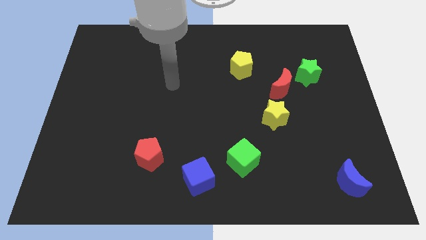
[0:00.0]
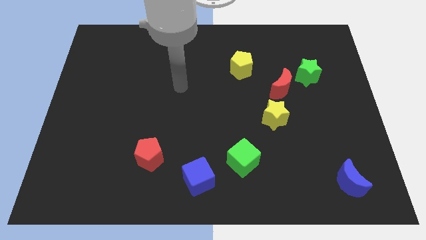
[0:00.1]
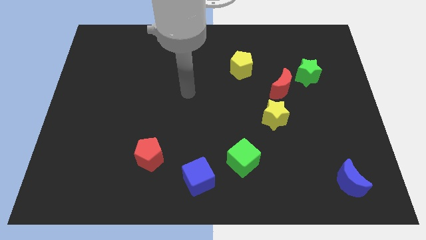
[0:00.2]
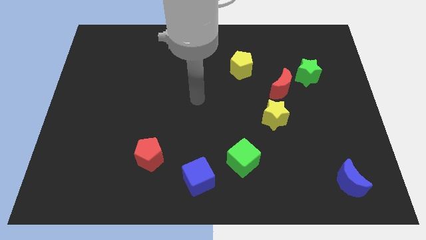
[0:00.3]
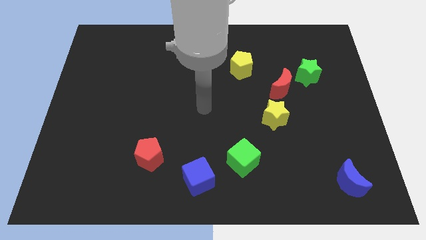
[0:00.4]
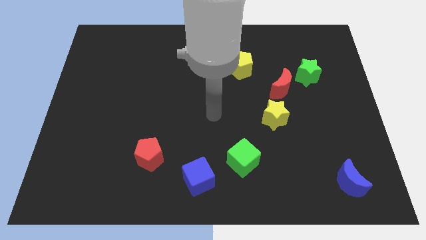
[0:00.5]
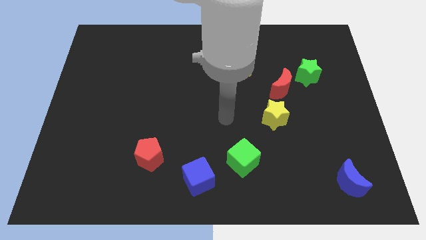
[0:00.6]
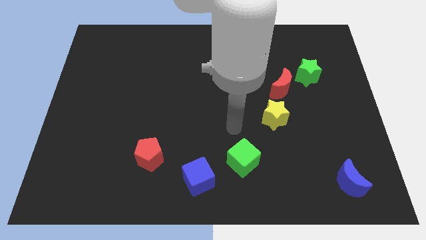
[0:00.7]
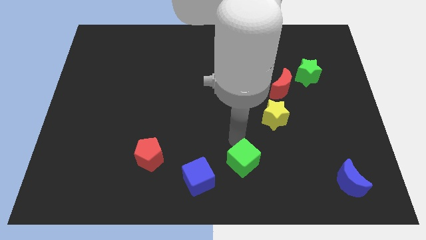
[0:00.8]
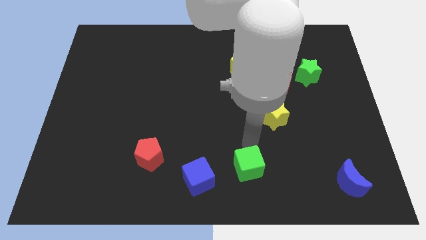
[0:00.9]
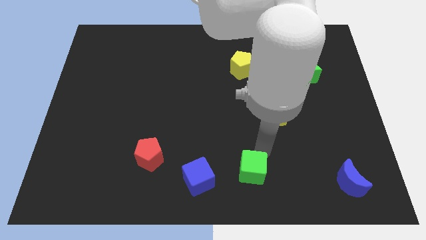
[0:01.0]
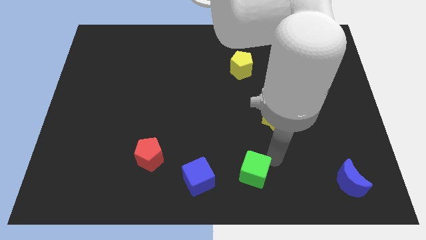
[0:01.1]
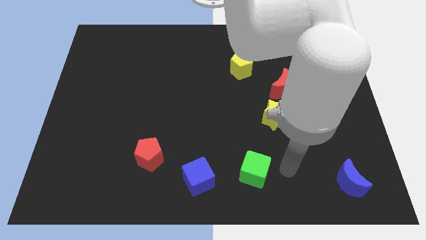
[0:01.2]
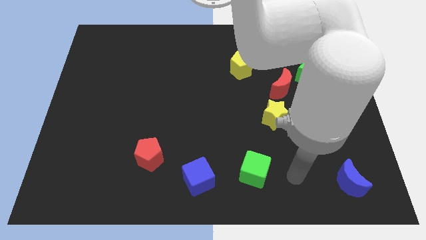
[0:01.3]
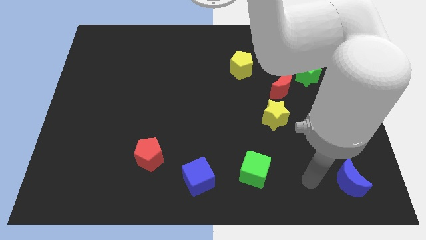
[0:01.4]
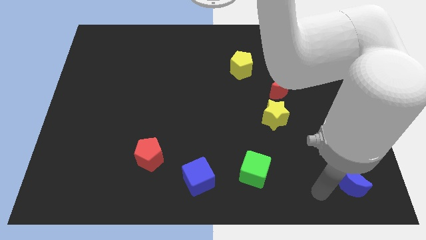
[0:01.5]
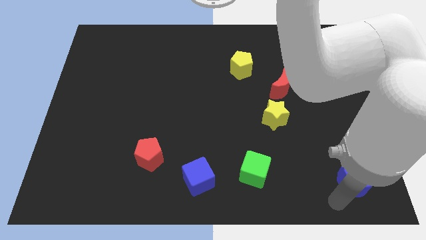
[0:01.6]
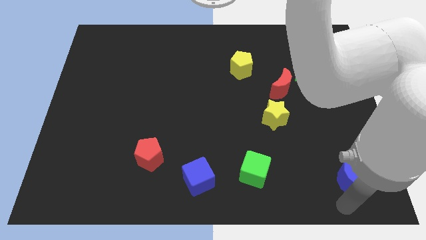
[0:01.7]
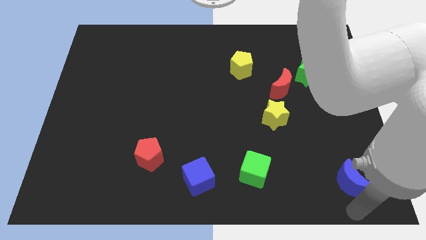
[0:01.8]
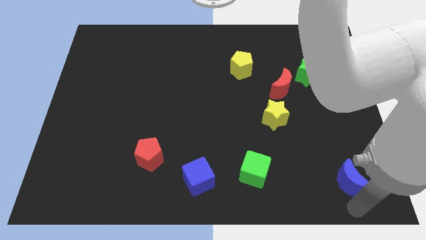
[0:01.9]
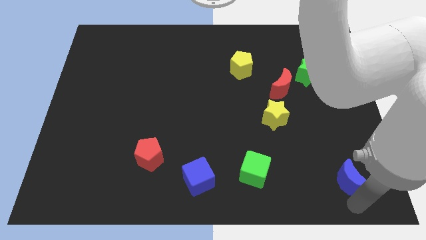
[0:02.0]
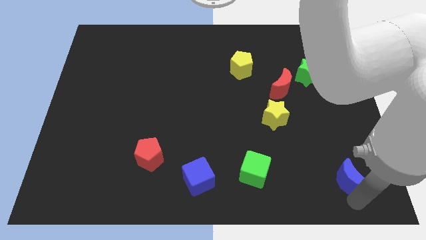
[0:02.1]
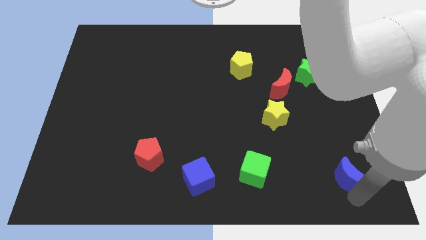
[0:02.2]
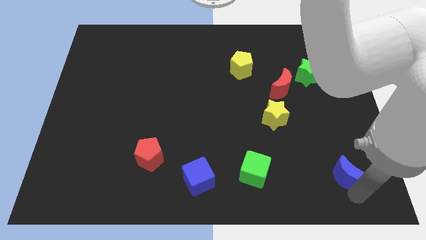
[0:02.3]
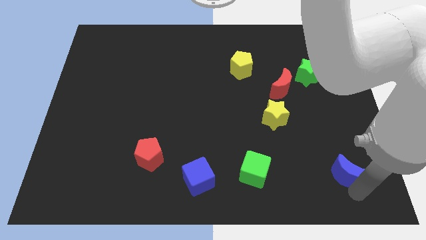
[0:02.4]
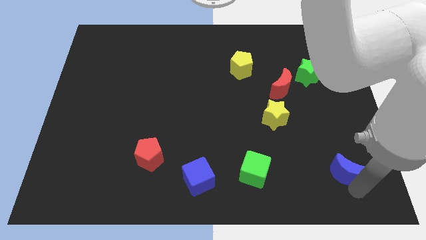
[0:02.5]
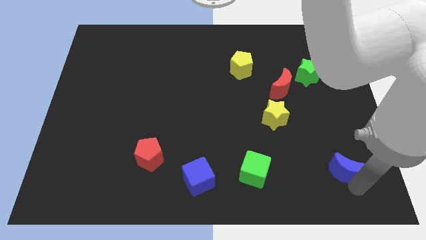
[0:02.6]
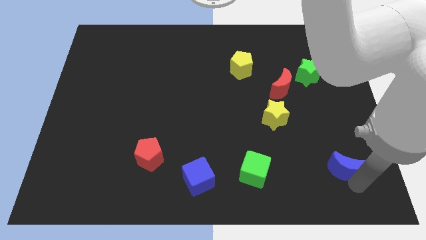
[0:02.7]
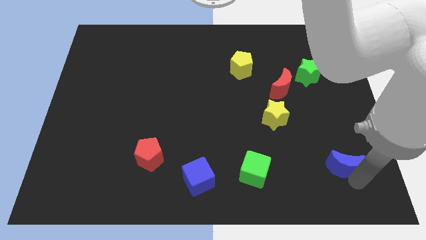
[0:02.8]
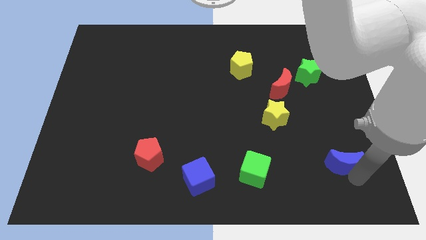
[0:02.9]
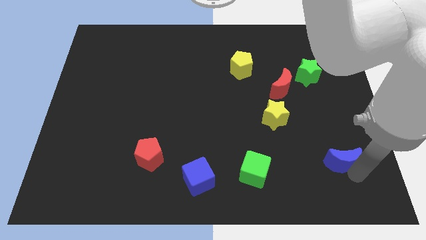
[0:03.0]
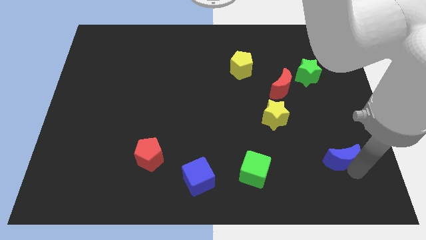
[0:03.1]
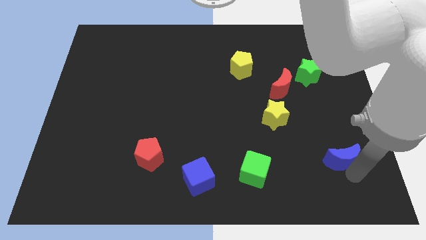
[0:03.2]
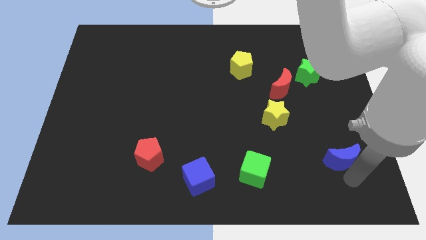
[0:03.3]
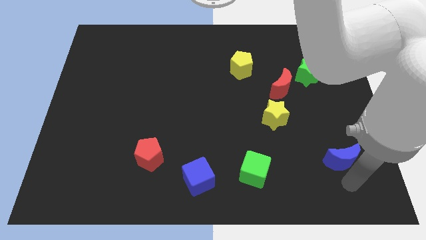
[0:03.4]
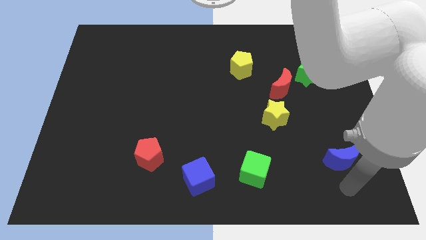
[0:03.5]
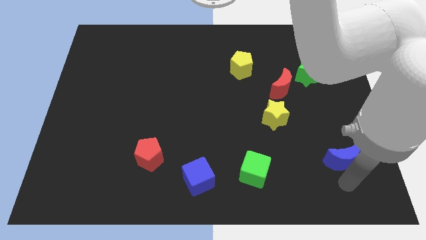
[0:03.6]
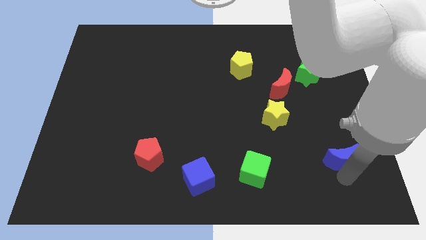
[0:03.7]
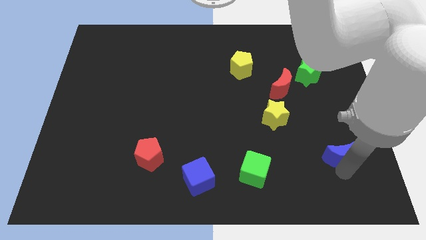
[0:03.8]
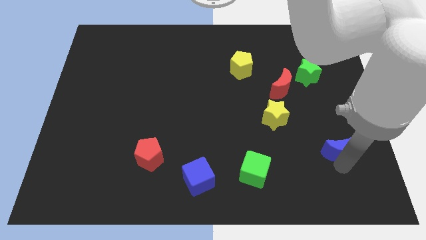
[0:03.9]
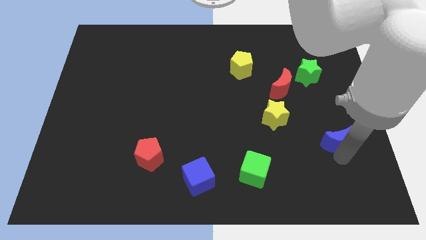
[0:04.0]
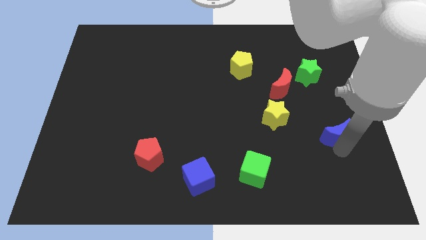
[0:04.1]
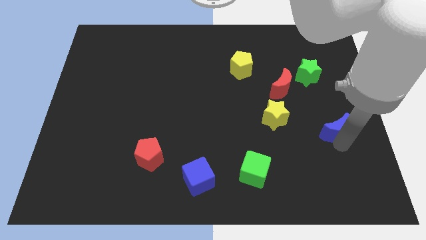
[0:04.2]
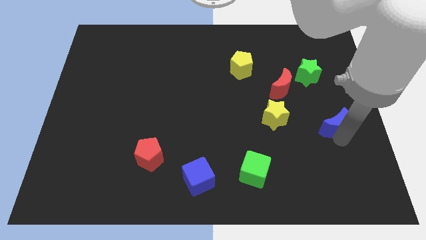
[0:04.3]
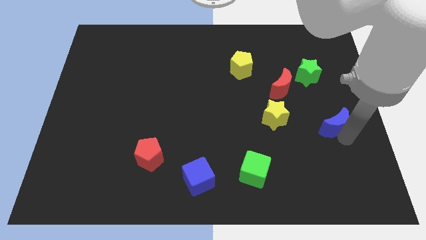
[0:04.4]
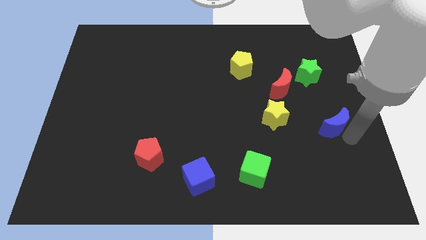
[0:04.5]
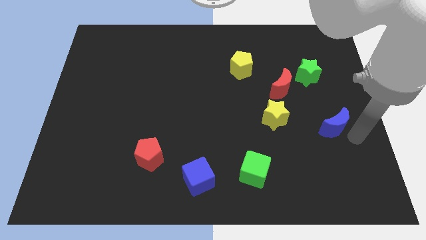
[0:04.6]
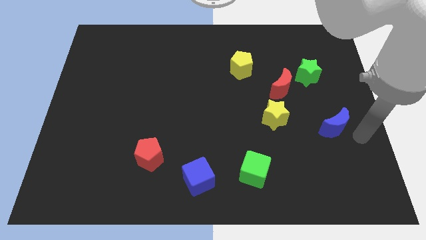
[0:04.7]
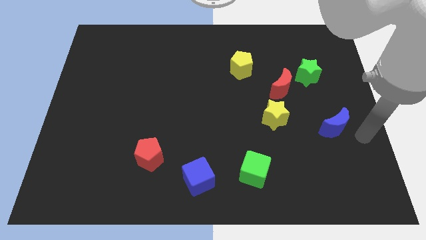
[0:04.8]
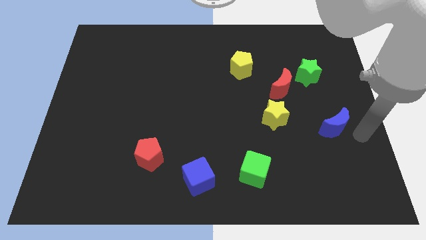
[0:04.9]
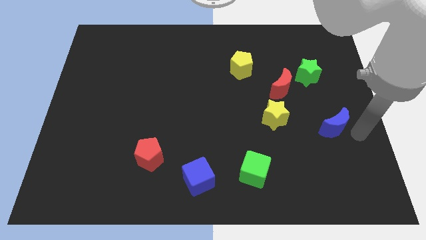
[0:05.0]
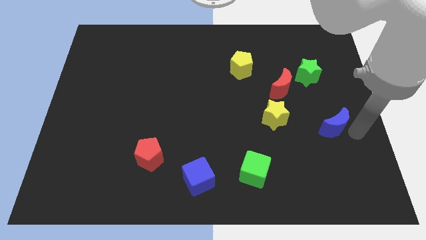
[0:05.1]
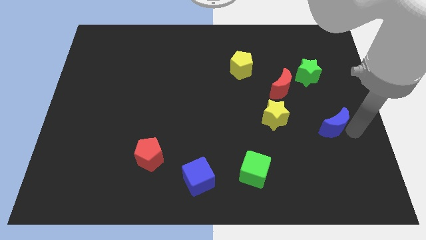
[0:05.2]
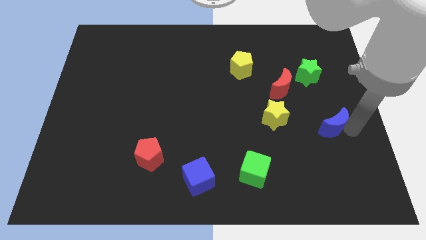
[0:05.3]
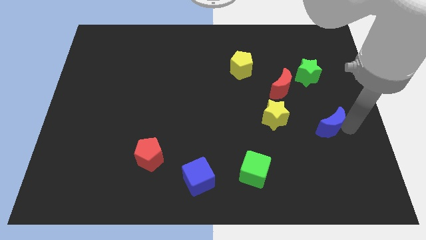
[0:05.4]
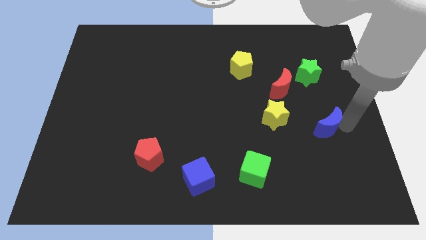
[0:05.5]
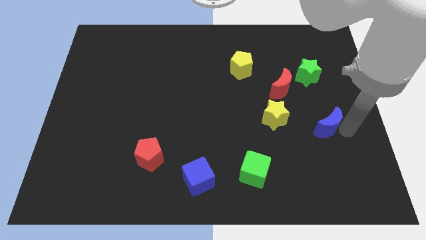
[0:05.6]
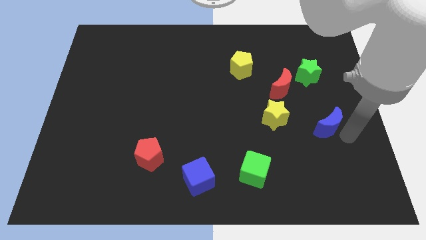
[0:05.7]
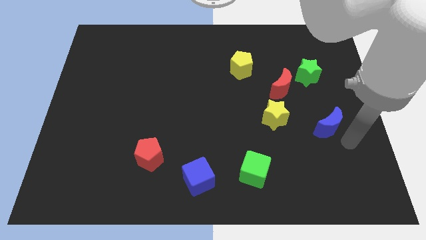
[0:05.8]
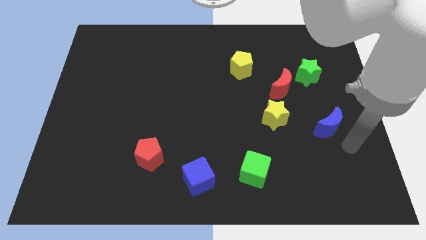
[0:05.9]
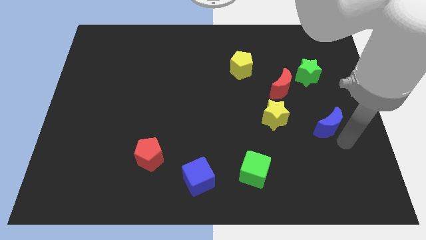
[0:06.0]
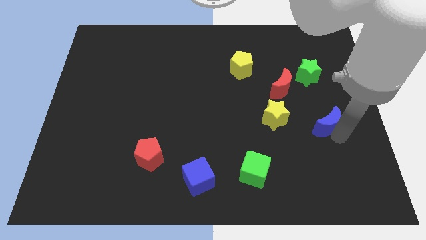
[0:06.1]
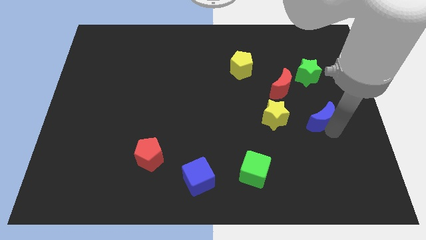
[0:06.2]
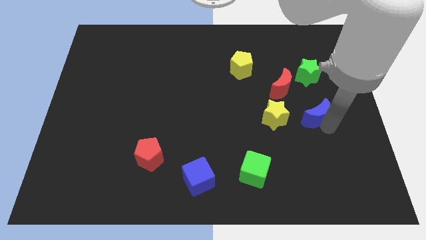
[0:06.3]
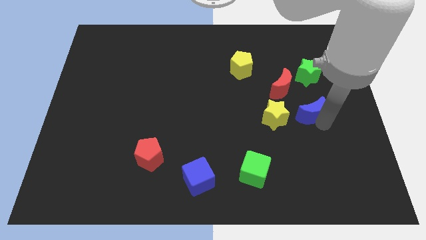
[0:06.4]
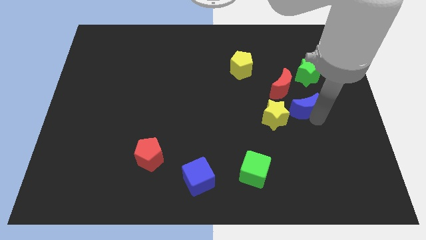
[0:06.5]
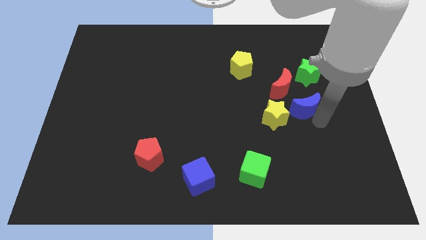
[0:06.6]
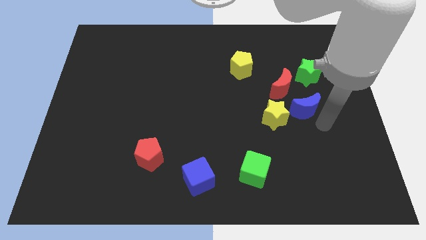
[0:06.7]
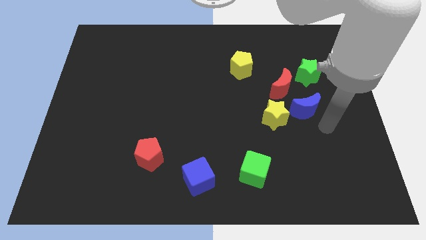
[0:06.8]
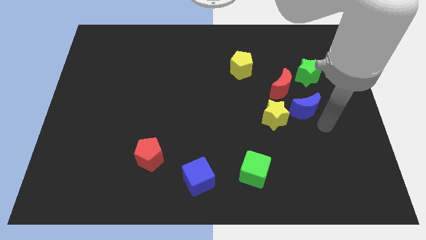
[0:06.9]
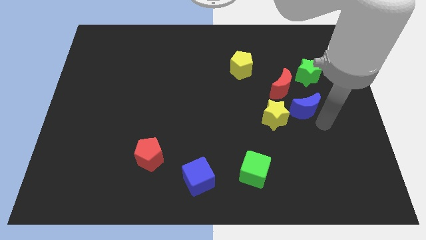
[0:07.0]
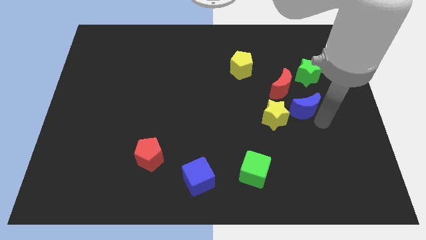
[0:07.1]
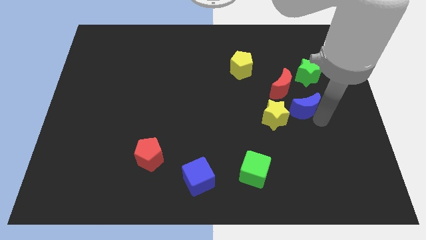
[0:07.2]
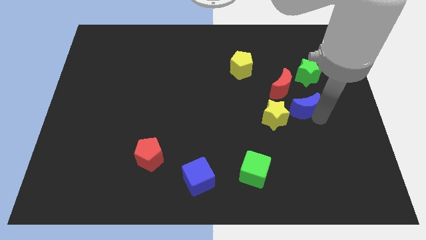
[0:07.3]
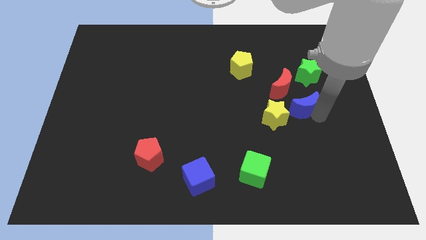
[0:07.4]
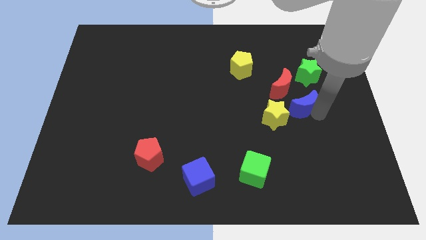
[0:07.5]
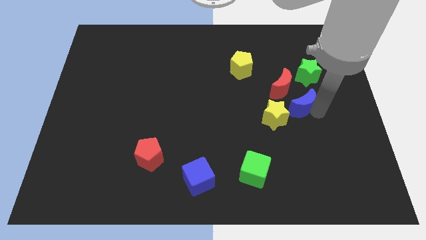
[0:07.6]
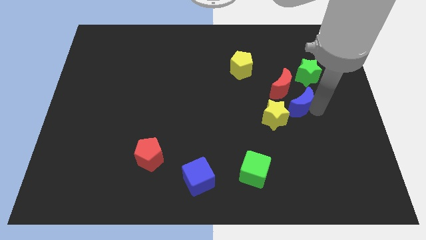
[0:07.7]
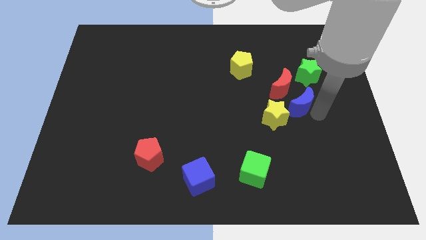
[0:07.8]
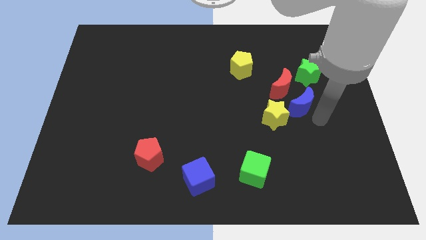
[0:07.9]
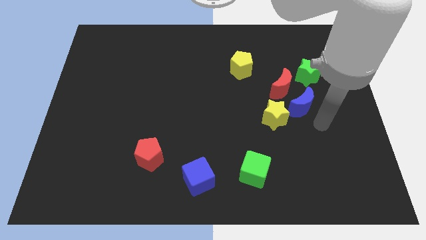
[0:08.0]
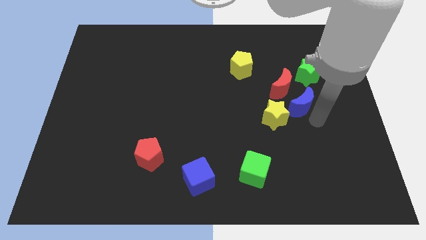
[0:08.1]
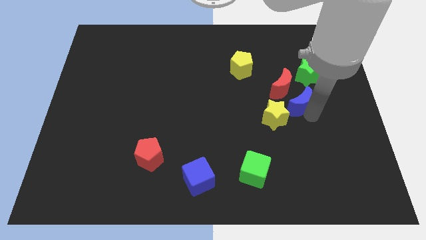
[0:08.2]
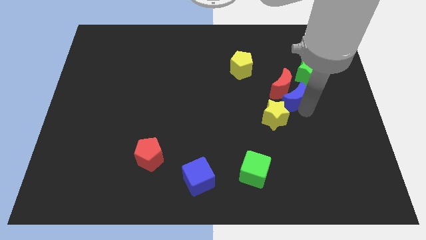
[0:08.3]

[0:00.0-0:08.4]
put the blue moon towards the red moon
